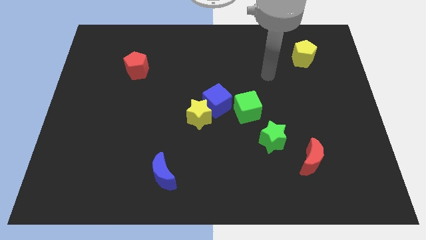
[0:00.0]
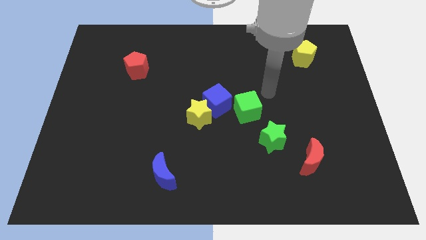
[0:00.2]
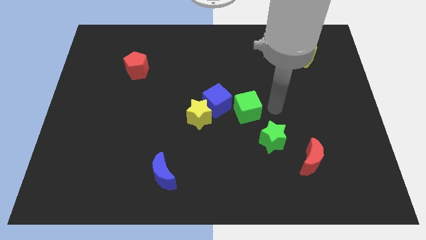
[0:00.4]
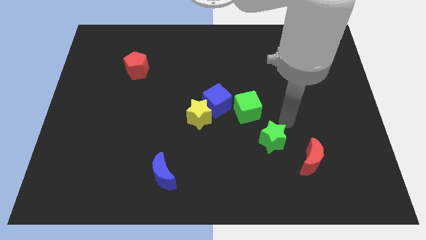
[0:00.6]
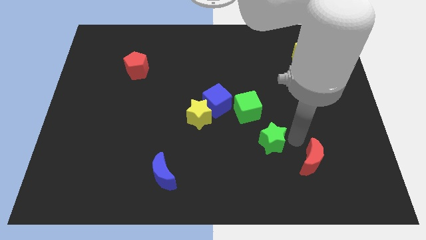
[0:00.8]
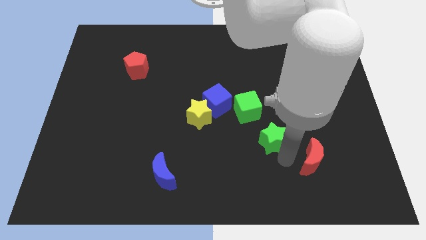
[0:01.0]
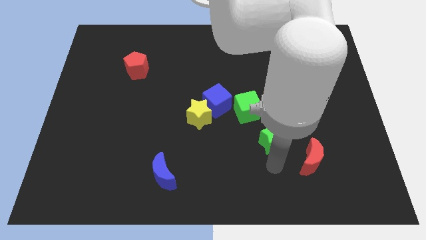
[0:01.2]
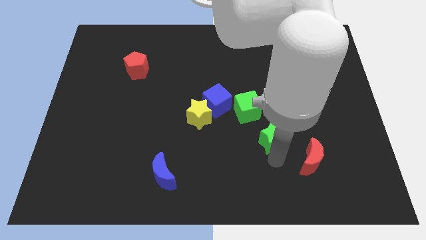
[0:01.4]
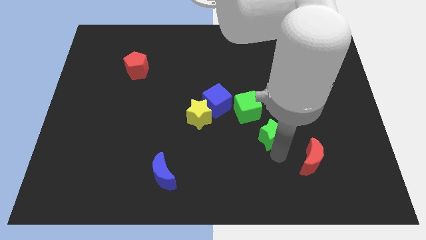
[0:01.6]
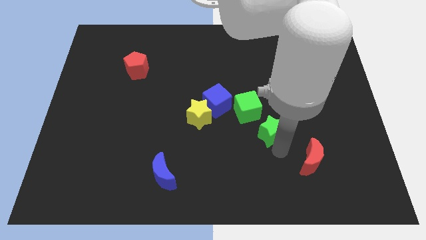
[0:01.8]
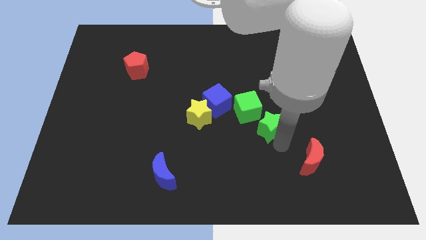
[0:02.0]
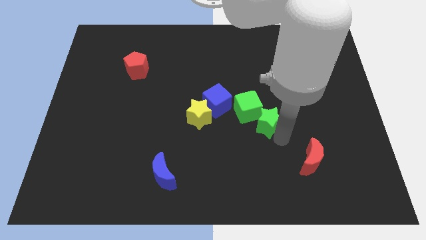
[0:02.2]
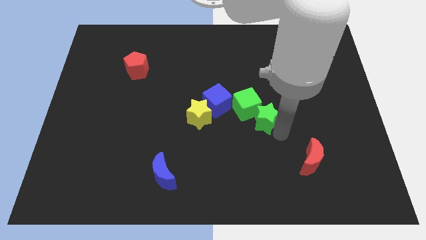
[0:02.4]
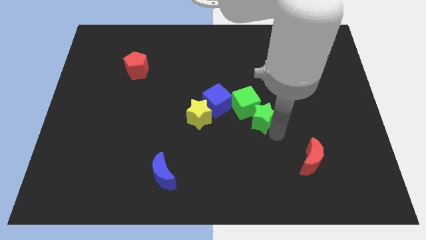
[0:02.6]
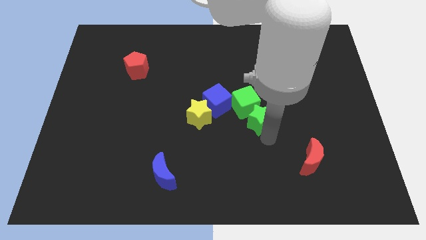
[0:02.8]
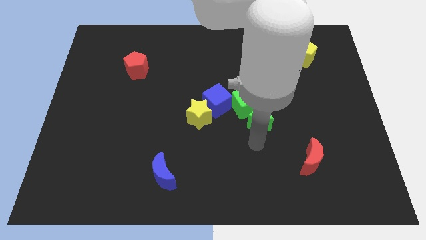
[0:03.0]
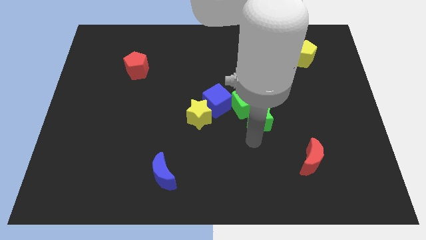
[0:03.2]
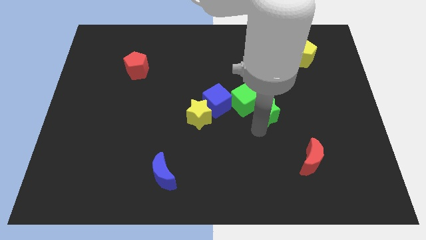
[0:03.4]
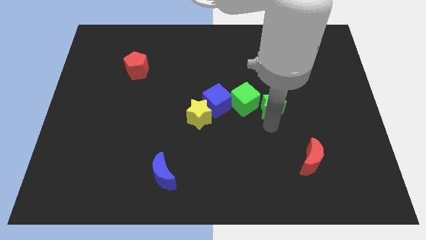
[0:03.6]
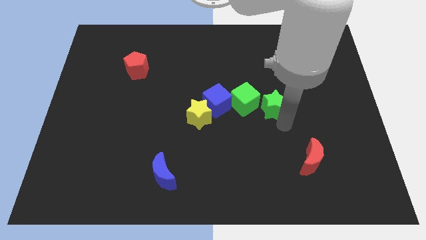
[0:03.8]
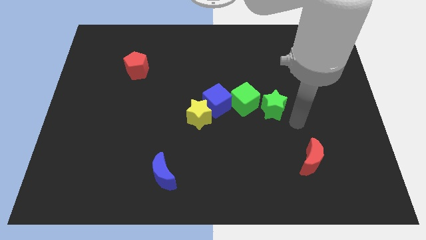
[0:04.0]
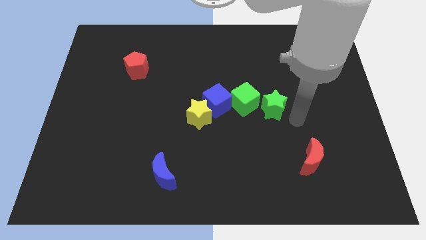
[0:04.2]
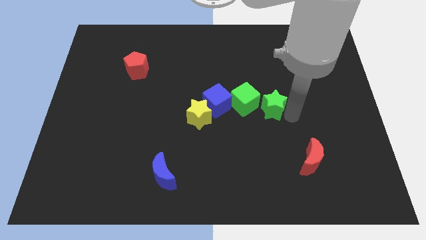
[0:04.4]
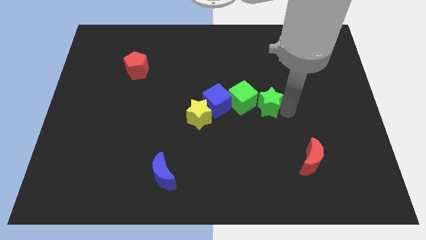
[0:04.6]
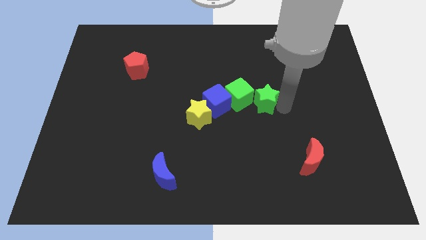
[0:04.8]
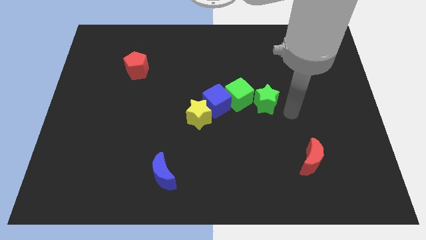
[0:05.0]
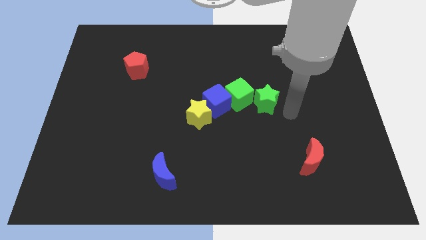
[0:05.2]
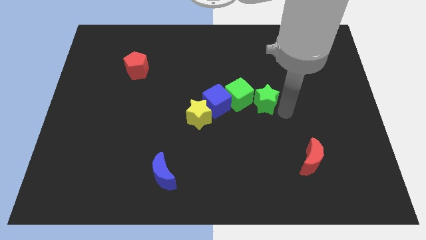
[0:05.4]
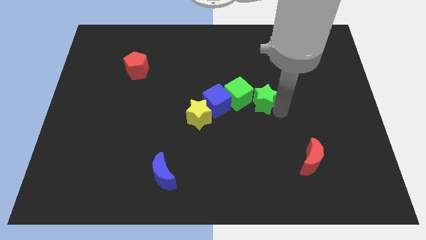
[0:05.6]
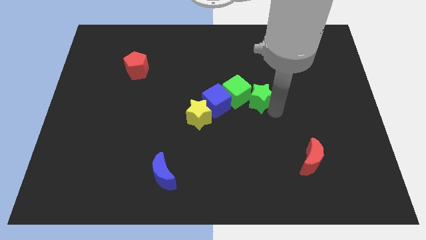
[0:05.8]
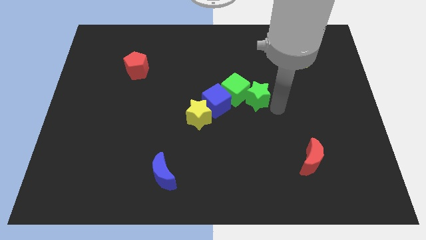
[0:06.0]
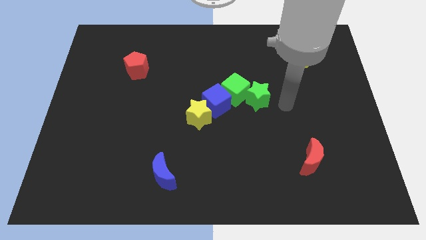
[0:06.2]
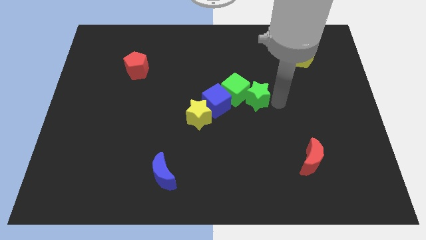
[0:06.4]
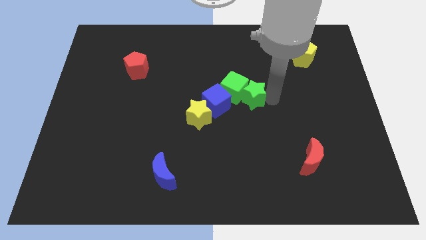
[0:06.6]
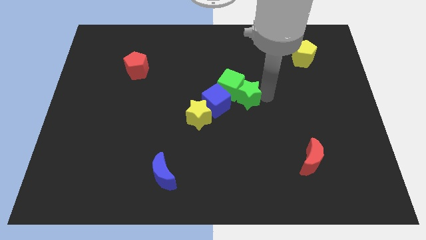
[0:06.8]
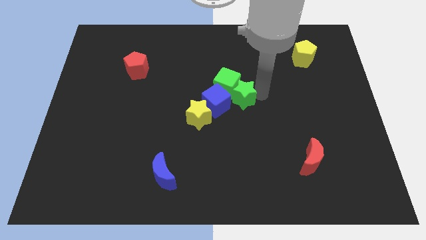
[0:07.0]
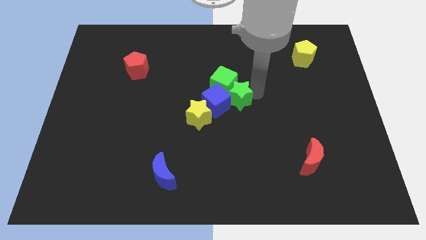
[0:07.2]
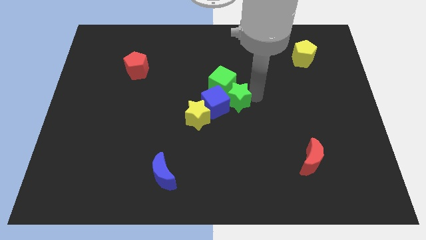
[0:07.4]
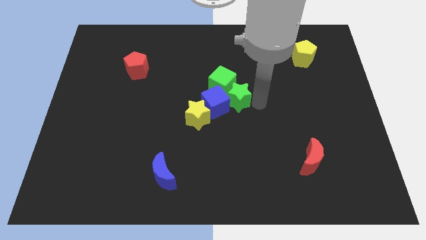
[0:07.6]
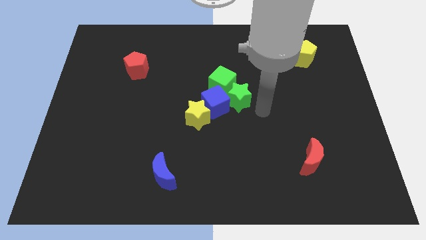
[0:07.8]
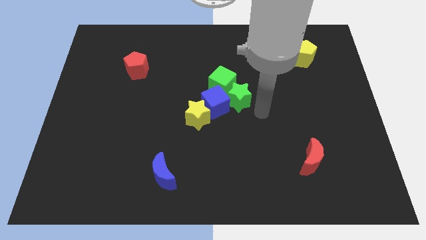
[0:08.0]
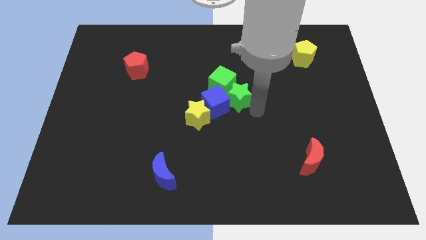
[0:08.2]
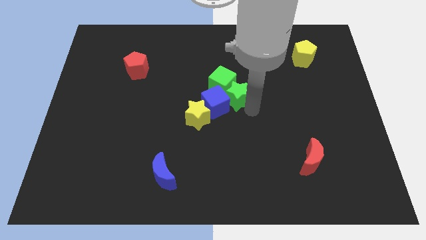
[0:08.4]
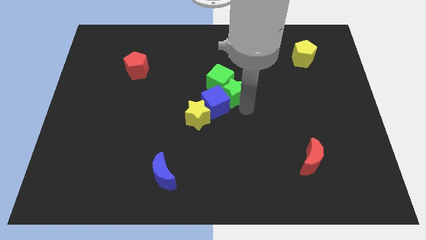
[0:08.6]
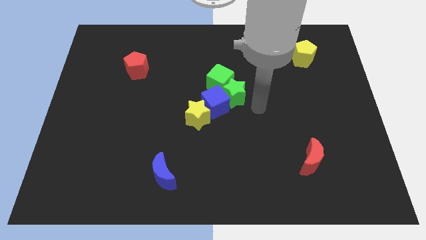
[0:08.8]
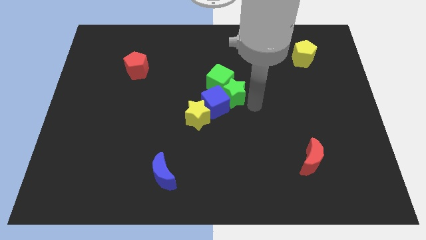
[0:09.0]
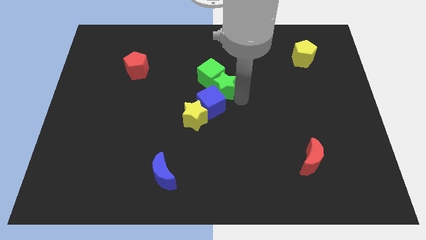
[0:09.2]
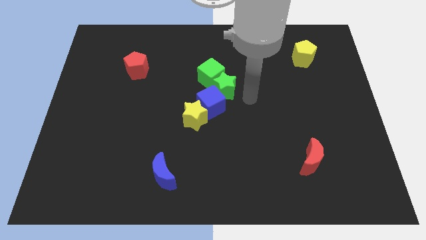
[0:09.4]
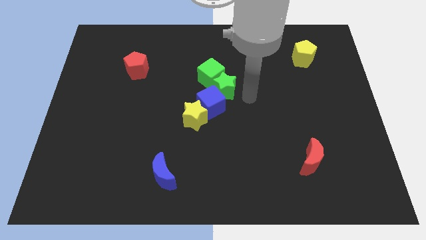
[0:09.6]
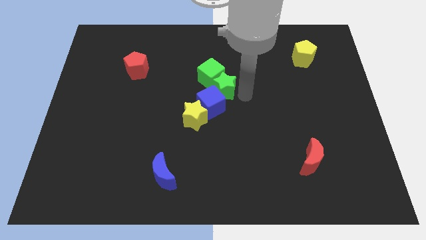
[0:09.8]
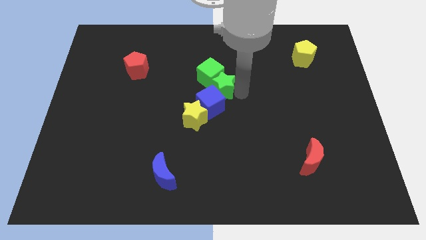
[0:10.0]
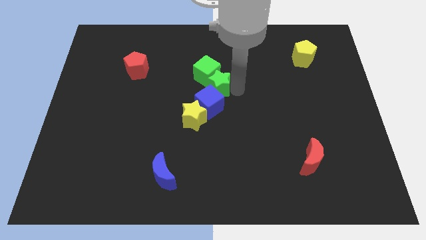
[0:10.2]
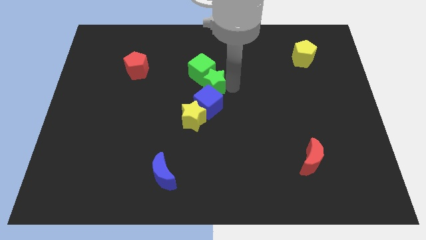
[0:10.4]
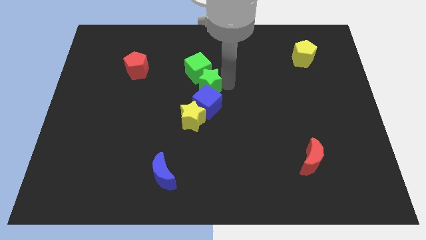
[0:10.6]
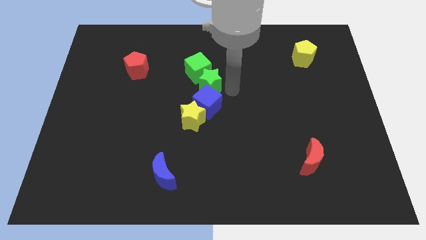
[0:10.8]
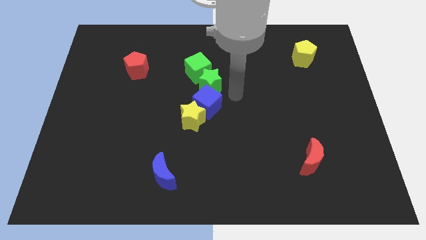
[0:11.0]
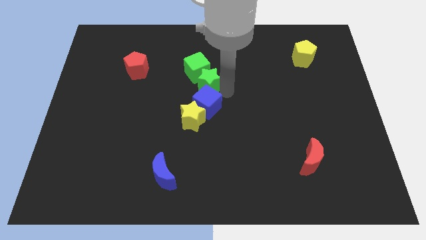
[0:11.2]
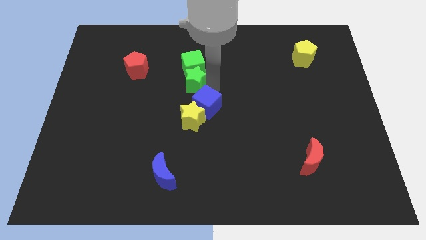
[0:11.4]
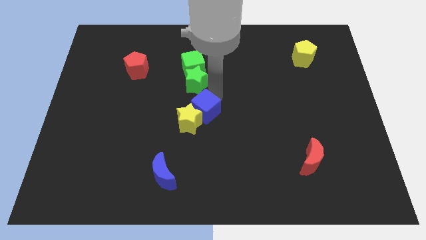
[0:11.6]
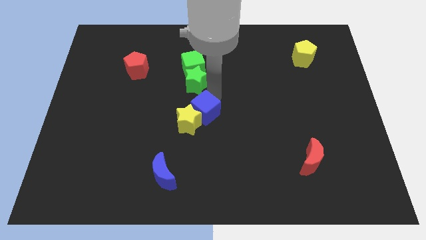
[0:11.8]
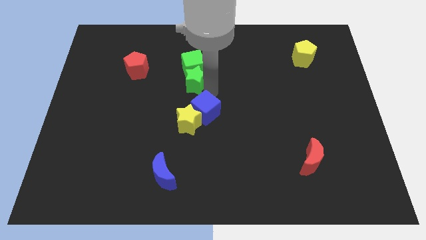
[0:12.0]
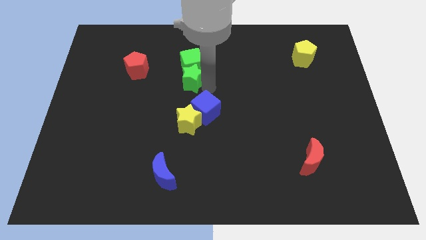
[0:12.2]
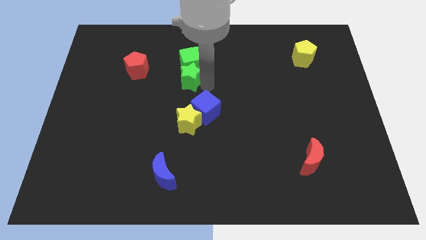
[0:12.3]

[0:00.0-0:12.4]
slide the green star to the right side of the red pentagon

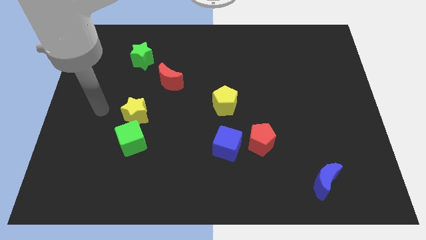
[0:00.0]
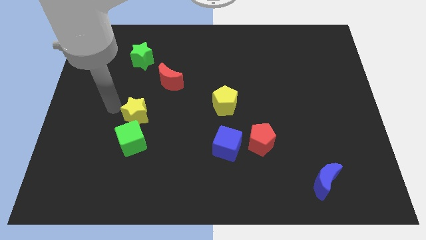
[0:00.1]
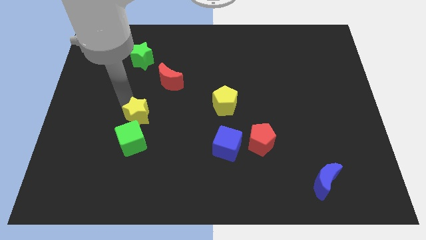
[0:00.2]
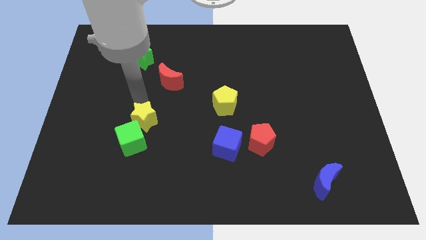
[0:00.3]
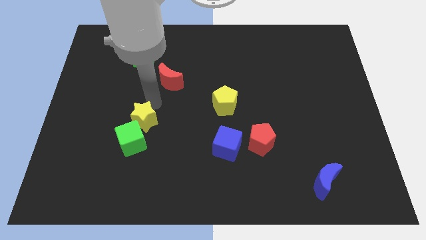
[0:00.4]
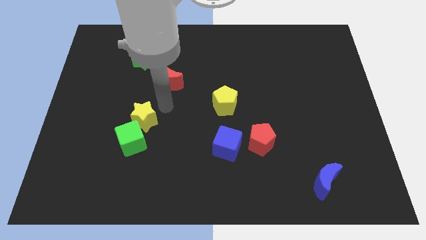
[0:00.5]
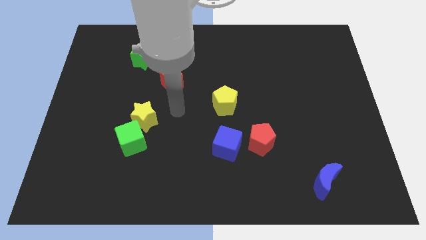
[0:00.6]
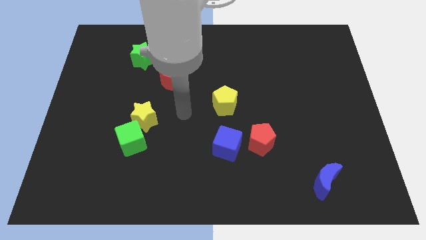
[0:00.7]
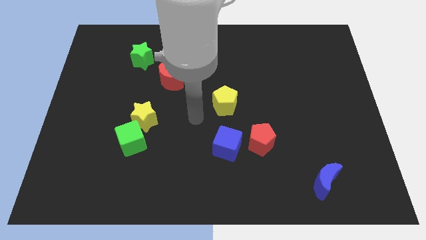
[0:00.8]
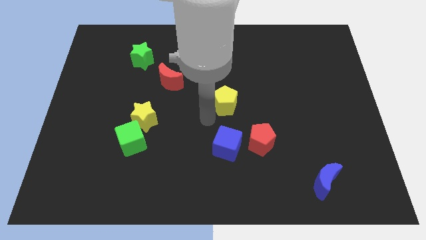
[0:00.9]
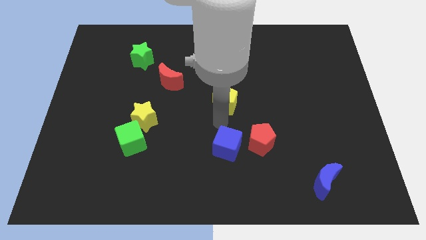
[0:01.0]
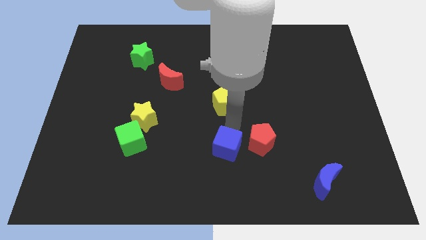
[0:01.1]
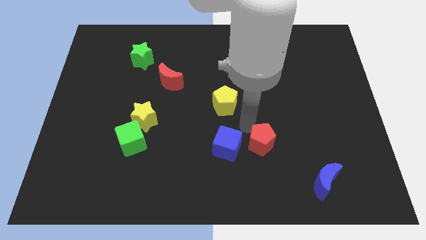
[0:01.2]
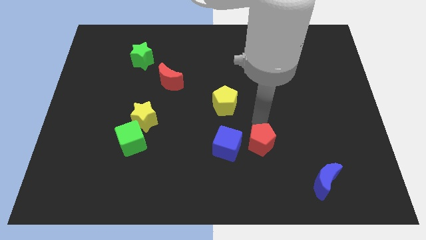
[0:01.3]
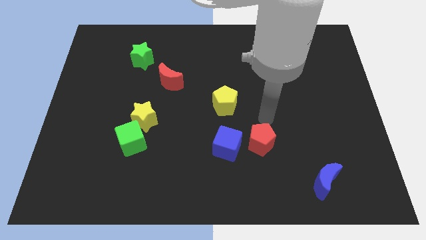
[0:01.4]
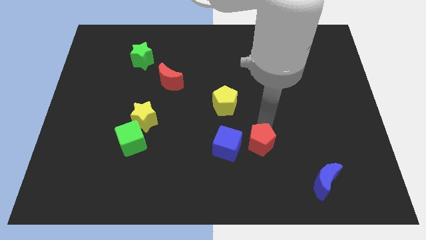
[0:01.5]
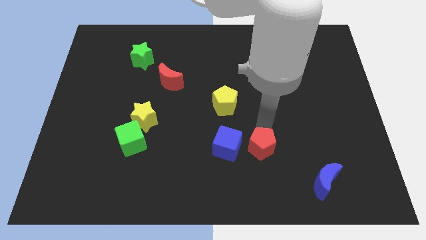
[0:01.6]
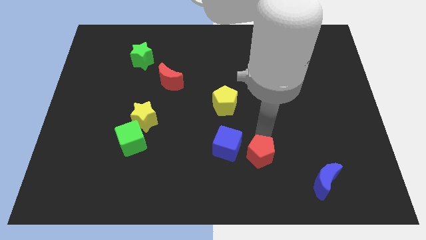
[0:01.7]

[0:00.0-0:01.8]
push the red pentagon to the bottom right side of the blue cube
